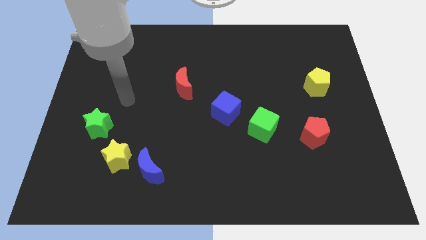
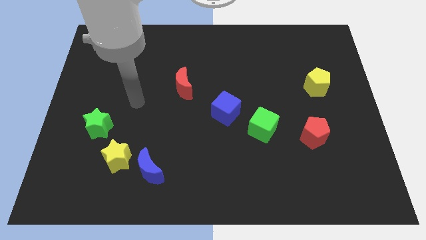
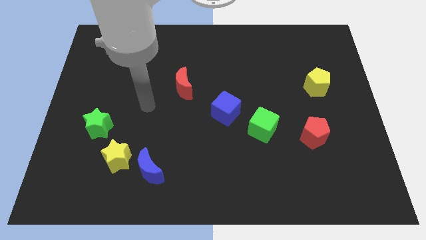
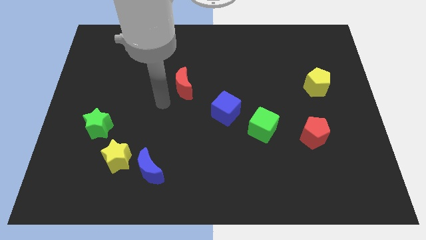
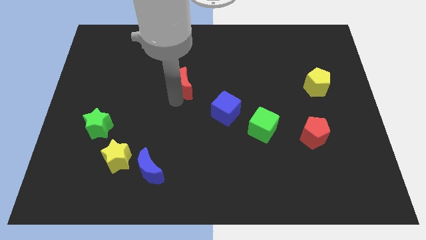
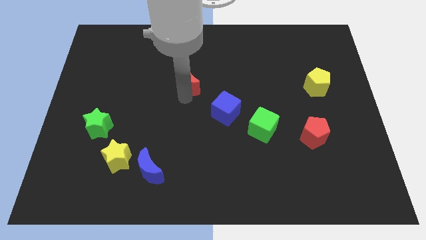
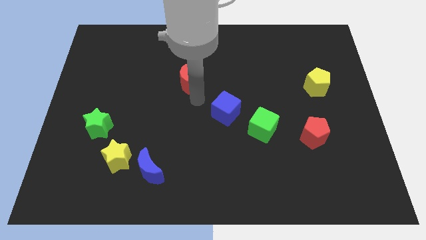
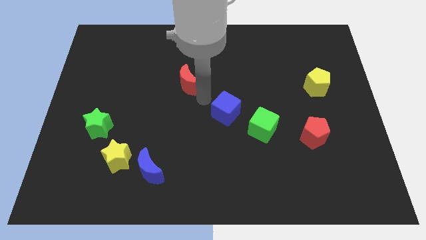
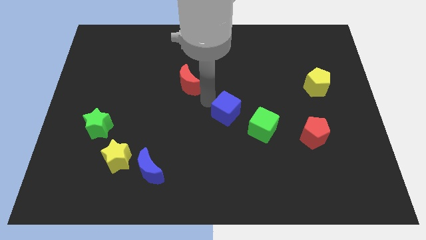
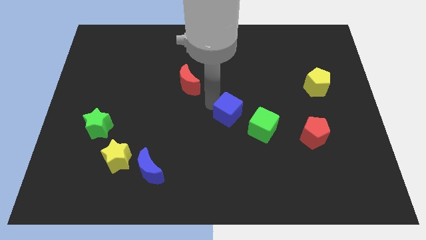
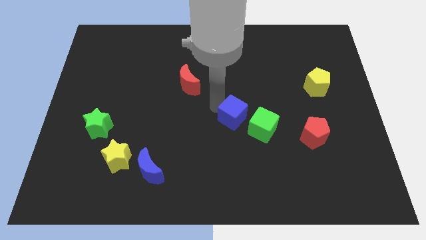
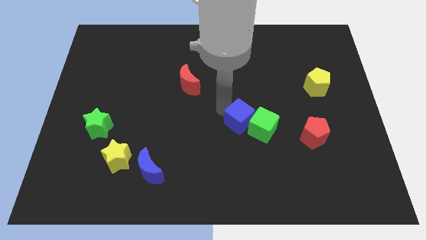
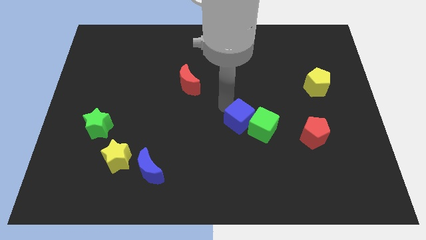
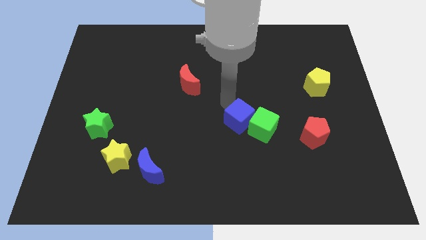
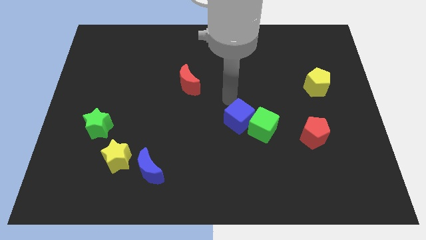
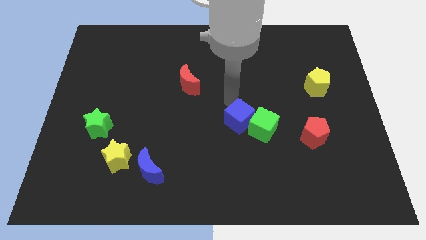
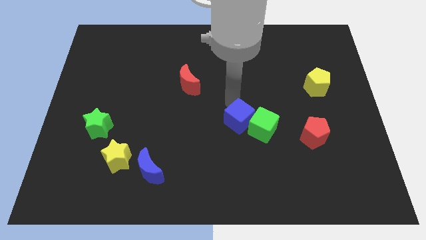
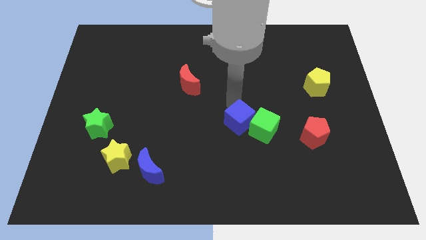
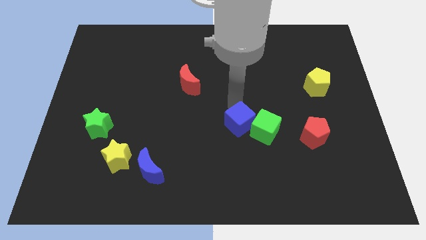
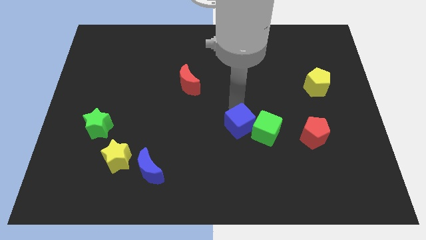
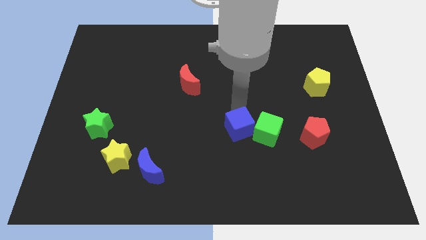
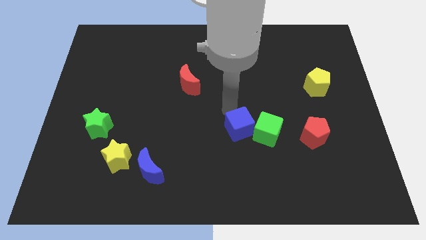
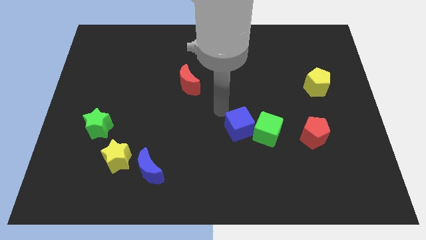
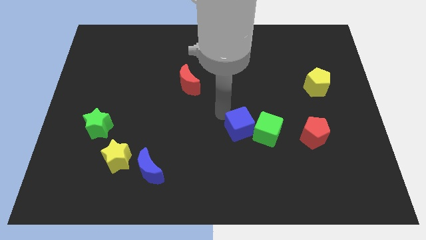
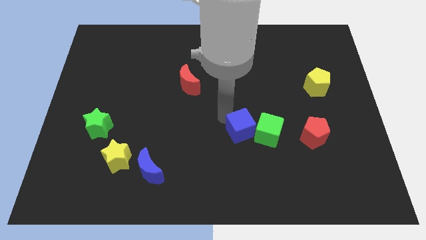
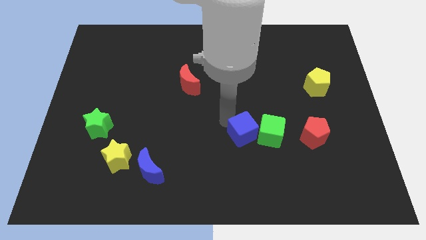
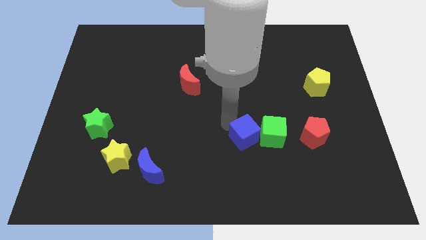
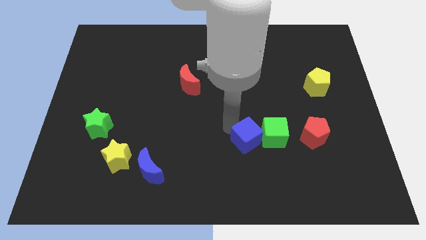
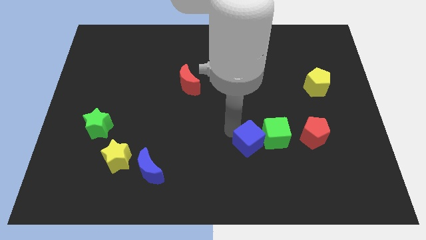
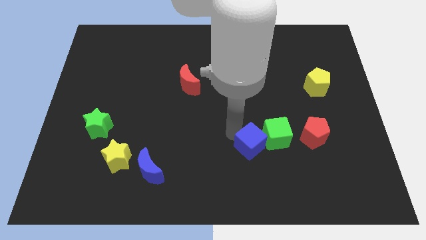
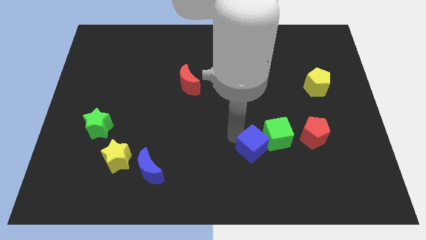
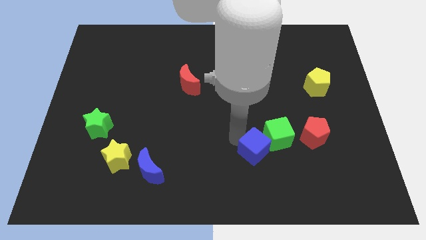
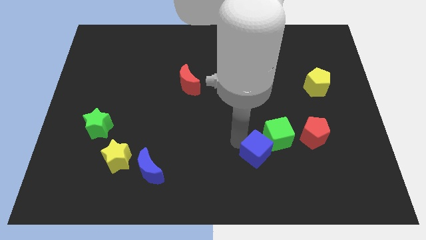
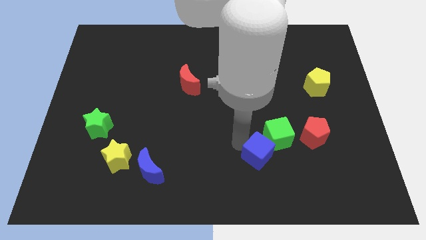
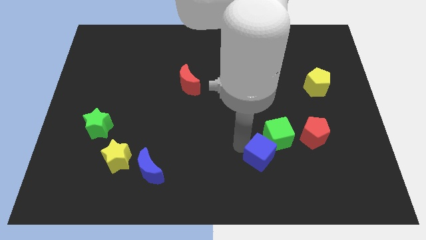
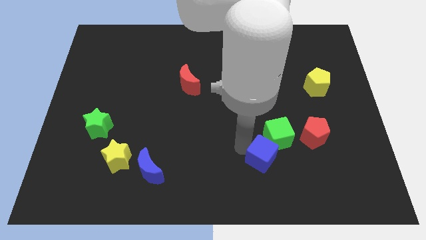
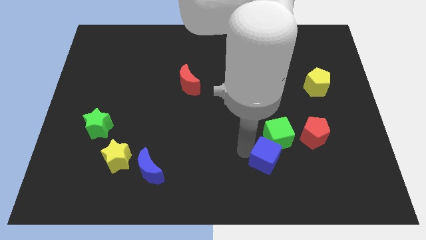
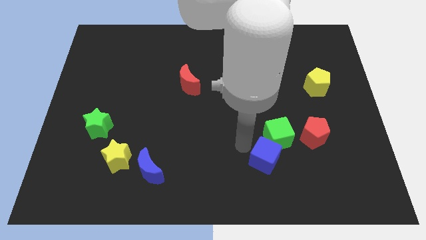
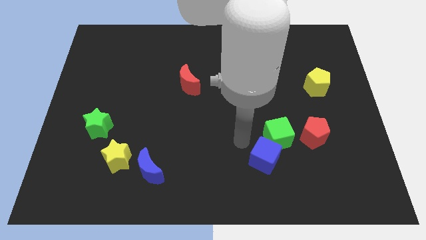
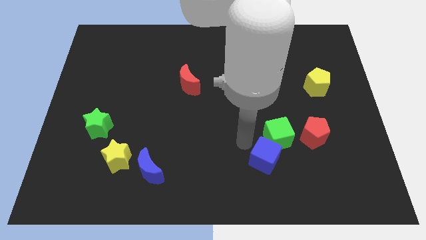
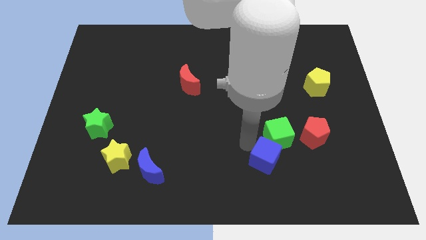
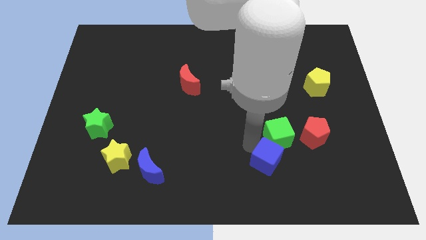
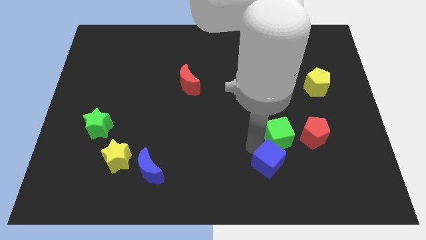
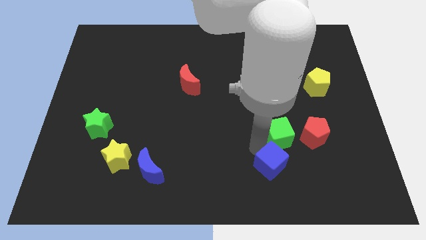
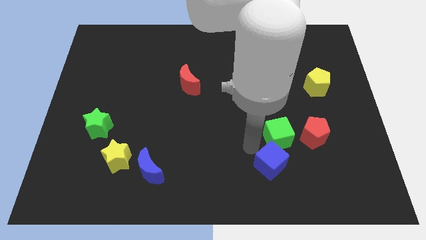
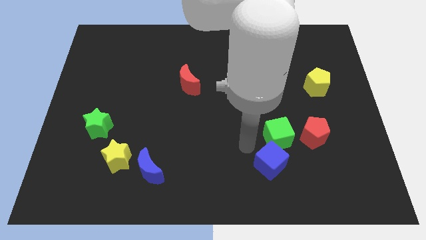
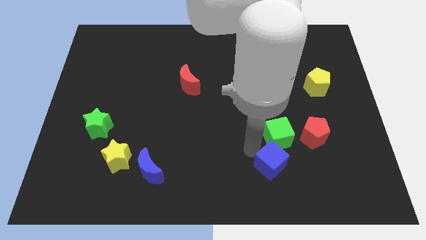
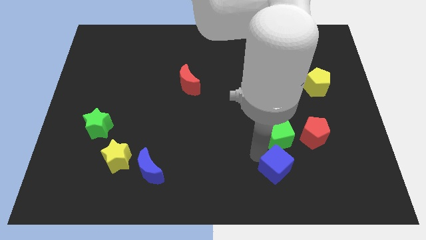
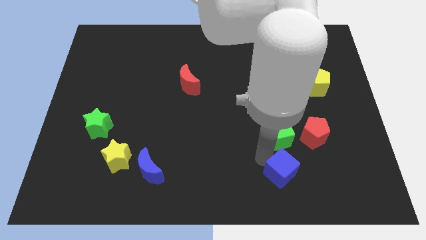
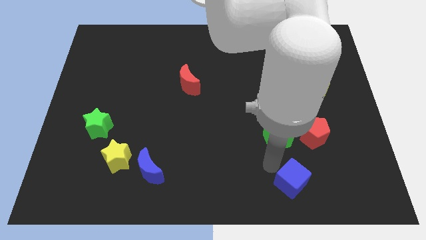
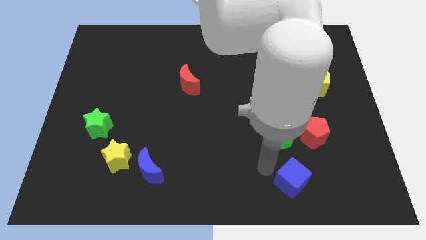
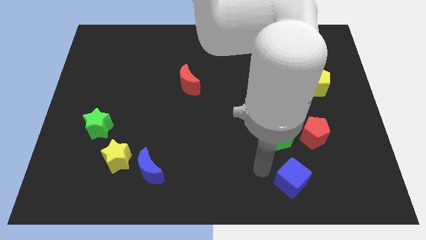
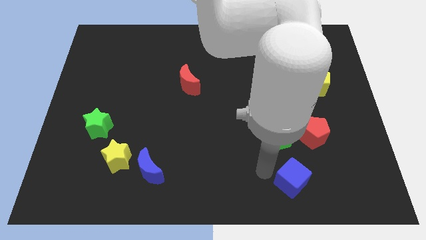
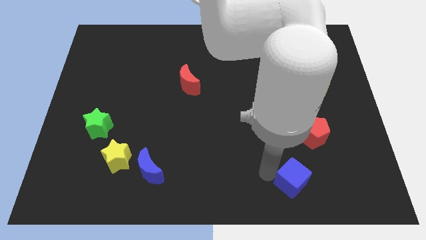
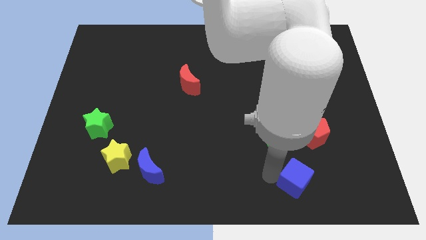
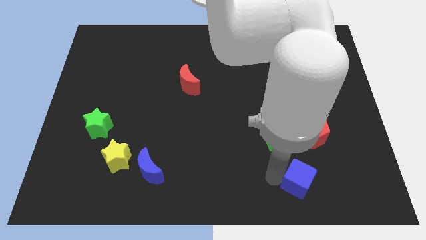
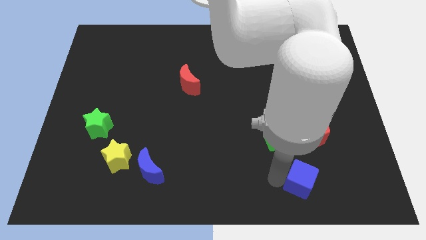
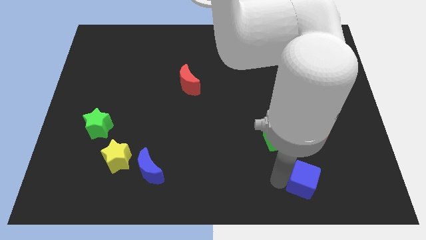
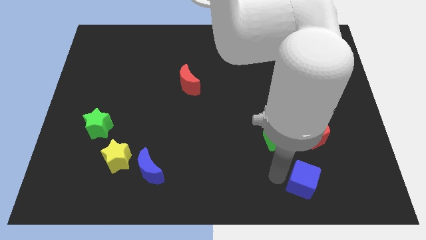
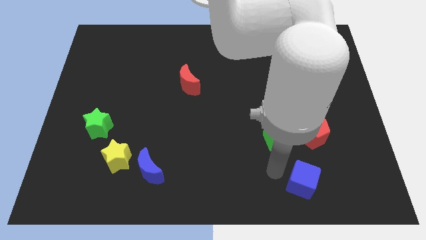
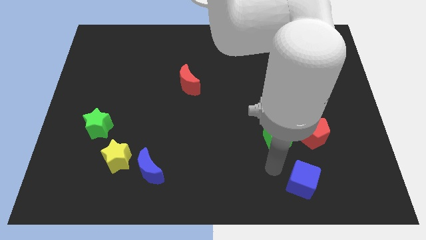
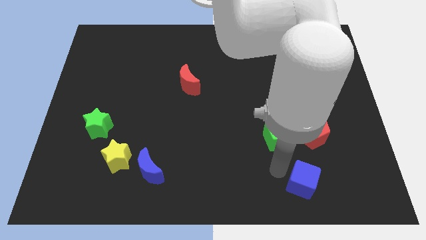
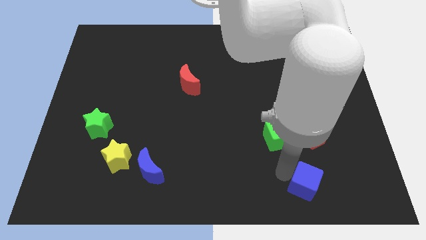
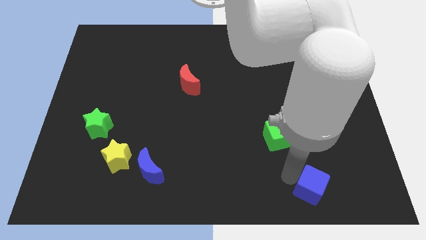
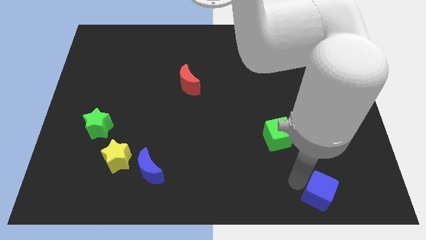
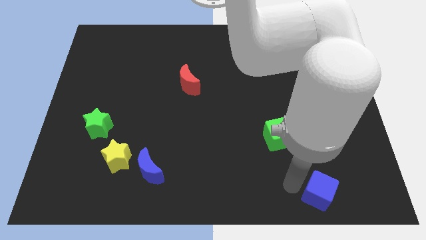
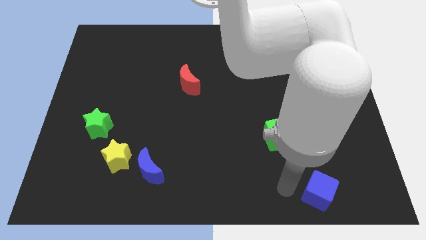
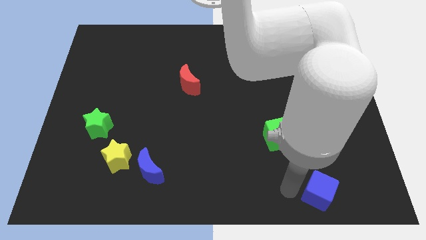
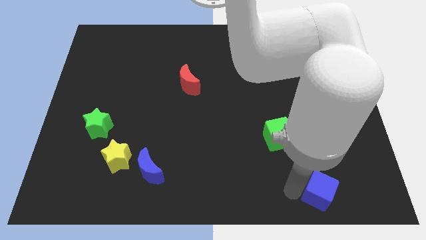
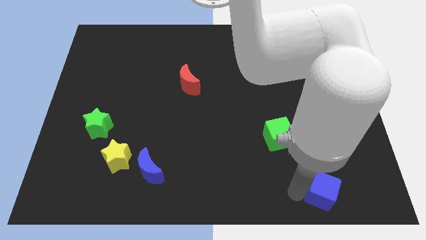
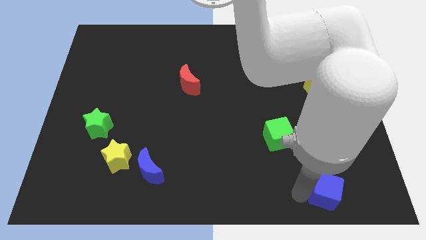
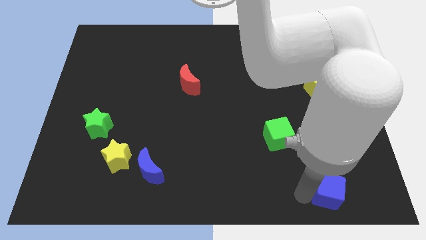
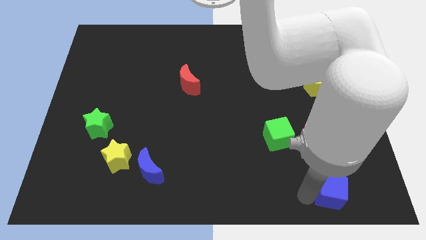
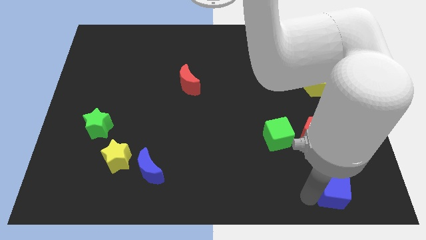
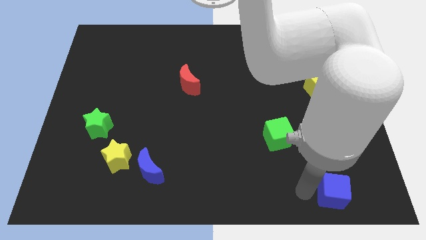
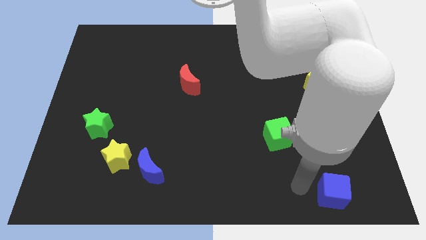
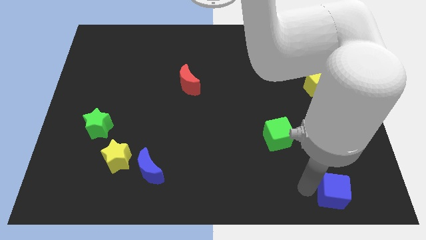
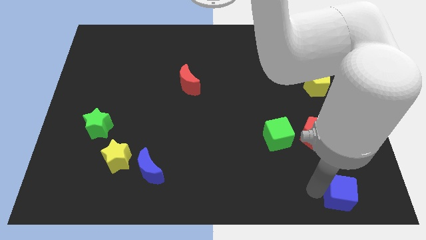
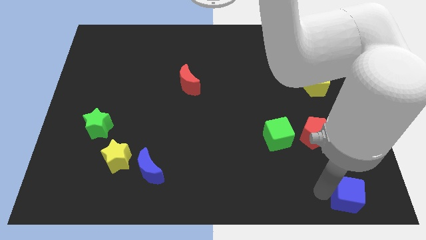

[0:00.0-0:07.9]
slide the blue cube to the bottom right of the board
